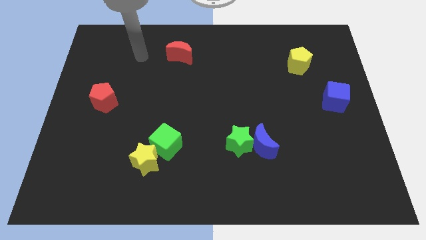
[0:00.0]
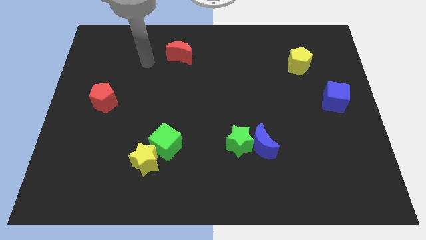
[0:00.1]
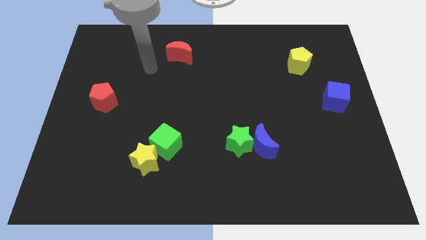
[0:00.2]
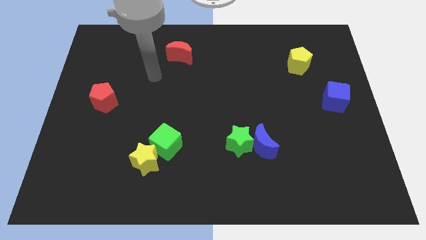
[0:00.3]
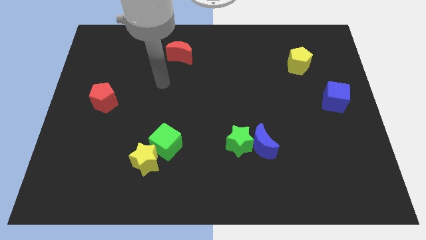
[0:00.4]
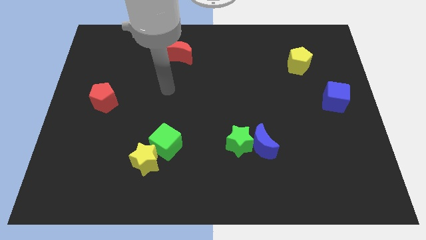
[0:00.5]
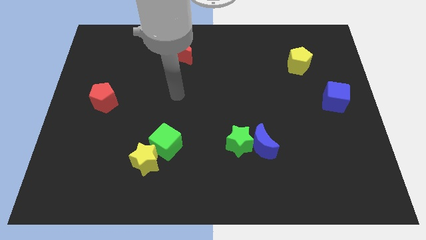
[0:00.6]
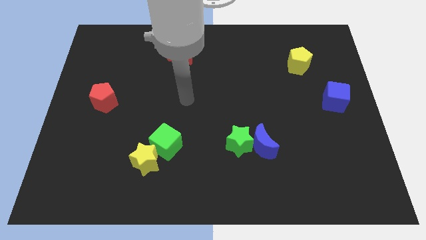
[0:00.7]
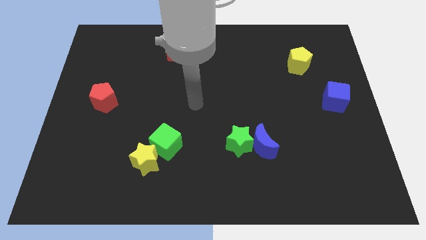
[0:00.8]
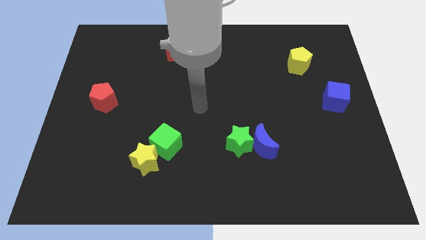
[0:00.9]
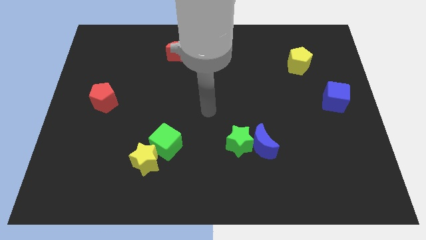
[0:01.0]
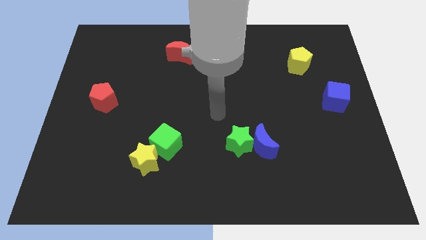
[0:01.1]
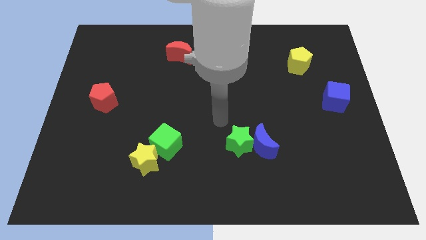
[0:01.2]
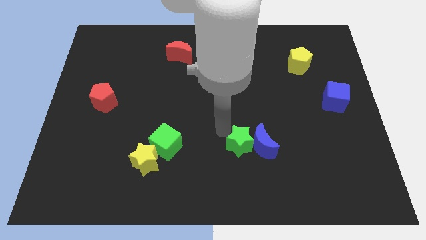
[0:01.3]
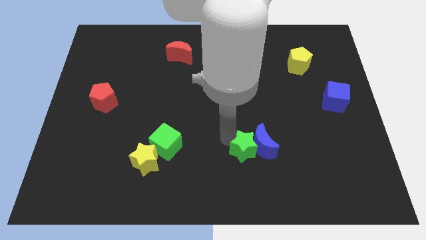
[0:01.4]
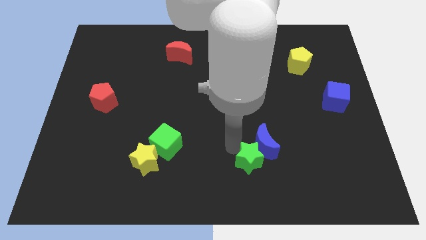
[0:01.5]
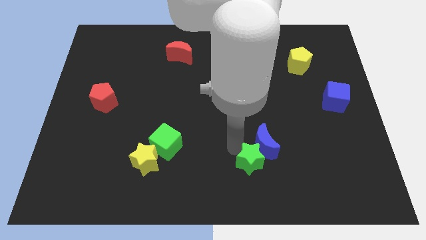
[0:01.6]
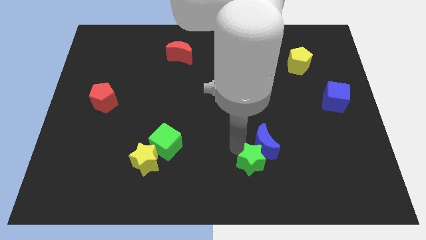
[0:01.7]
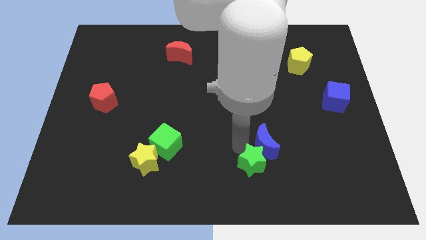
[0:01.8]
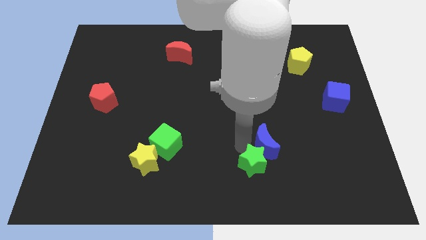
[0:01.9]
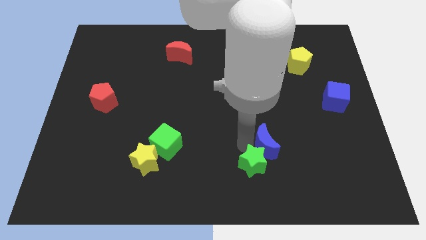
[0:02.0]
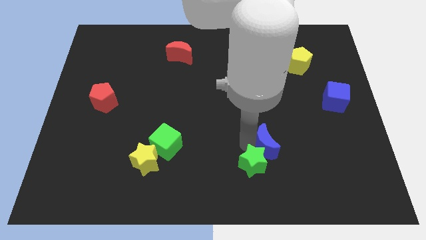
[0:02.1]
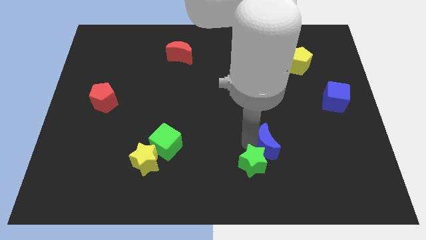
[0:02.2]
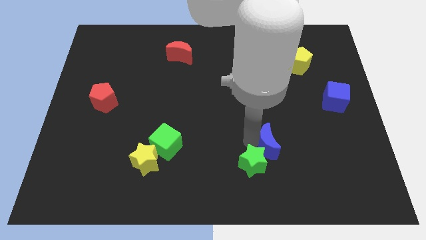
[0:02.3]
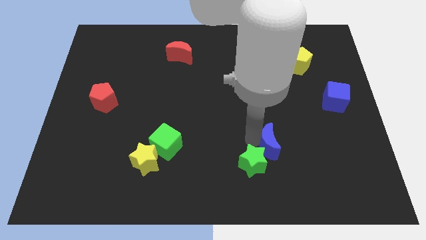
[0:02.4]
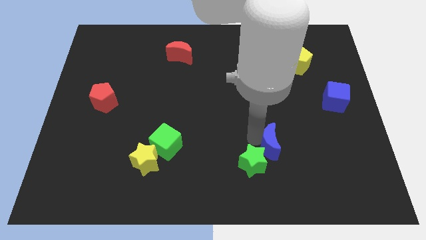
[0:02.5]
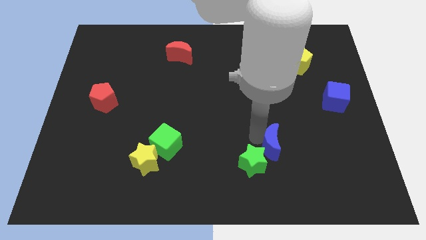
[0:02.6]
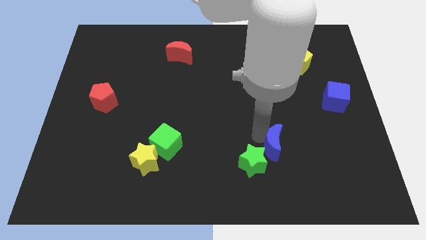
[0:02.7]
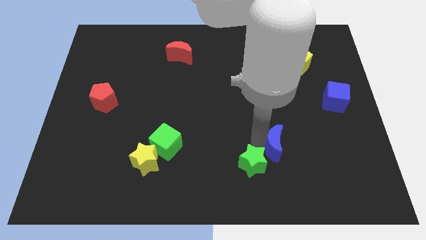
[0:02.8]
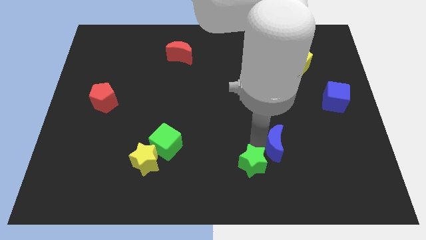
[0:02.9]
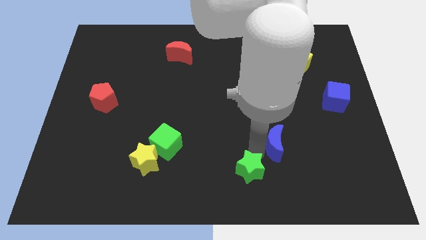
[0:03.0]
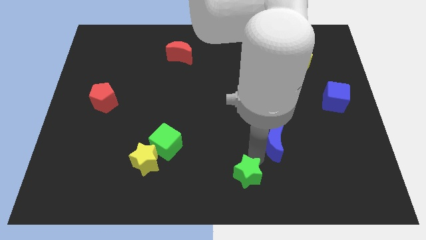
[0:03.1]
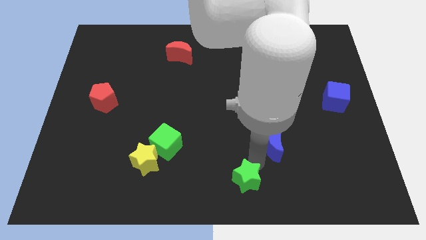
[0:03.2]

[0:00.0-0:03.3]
move the blue moon away from the green star

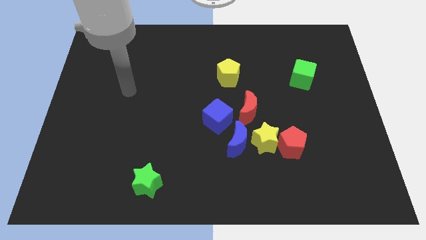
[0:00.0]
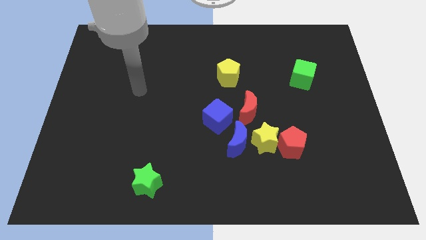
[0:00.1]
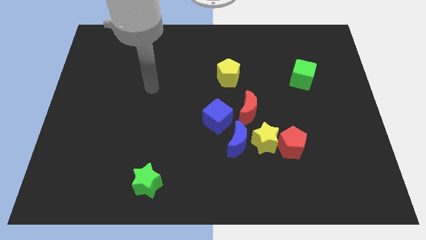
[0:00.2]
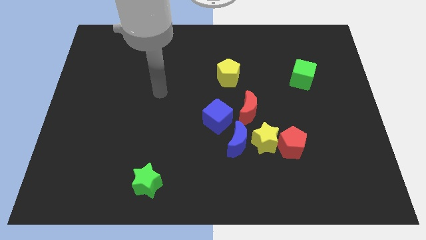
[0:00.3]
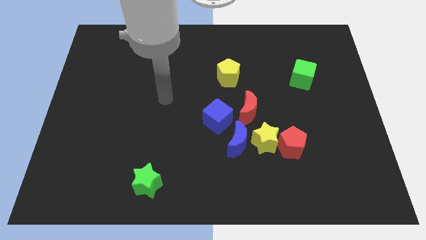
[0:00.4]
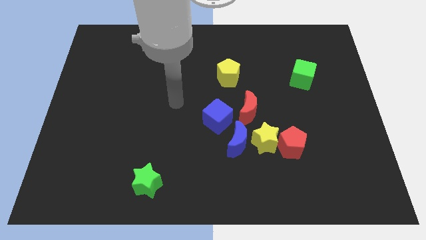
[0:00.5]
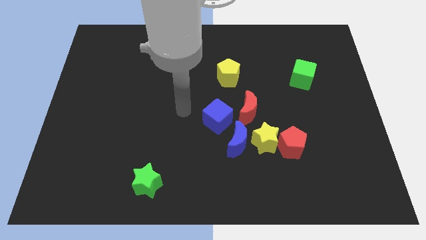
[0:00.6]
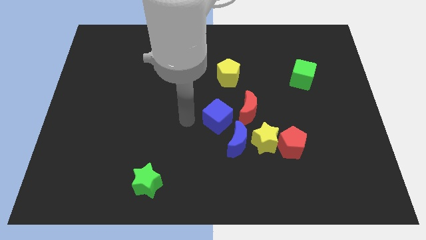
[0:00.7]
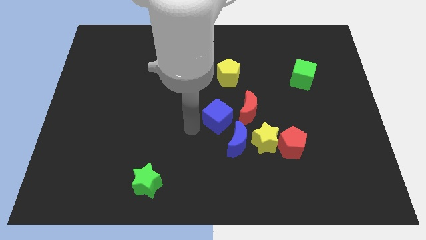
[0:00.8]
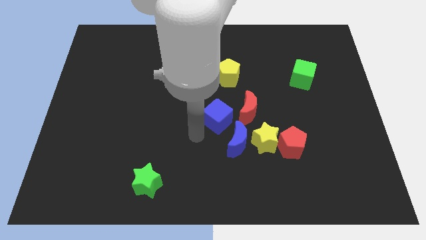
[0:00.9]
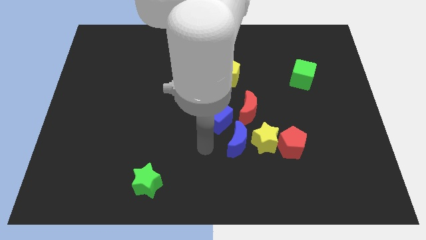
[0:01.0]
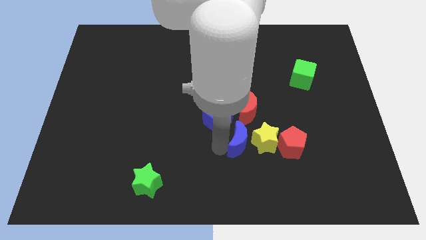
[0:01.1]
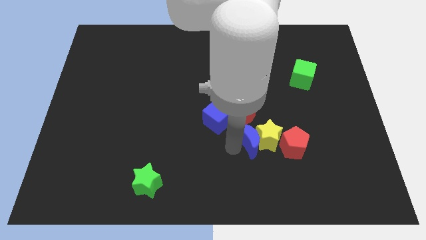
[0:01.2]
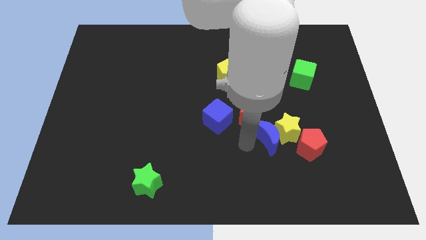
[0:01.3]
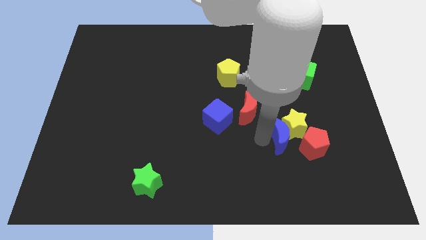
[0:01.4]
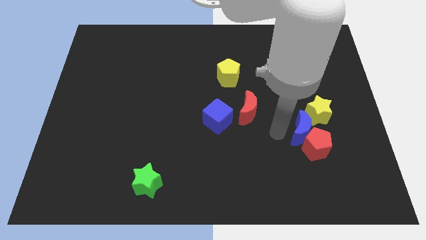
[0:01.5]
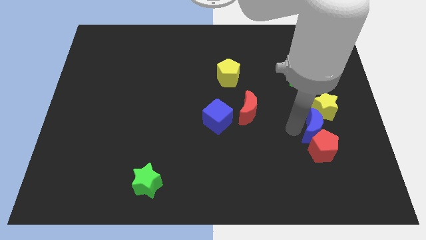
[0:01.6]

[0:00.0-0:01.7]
separate the red pentagon from the yellow star

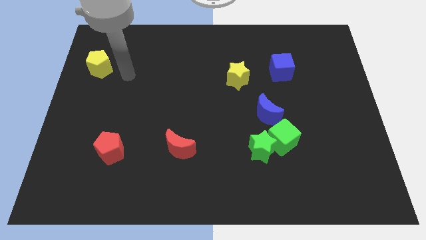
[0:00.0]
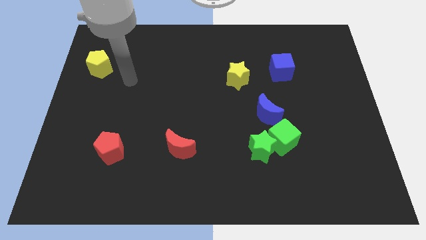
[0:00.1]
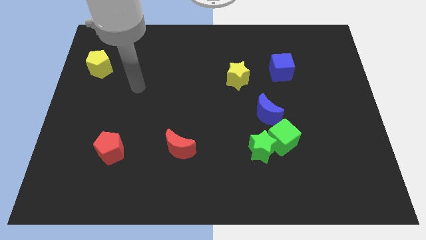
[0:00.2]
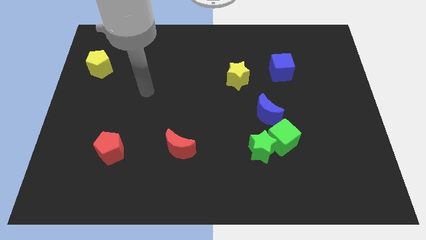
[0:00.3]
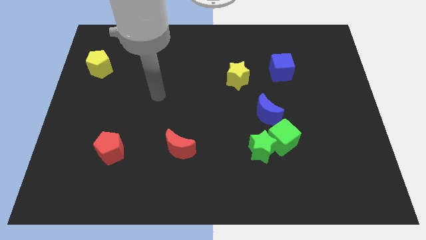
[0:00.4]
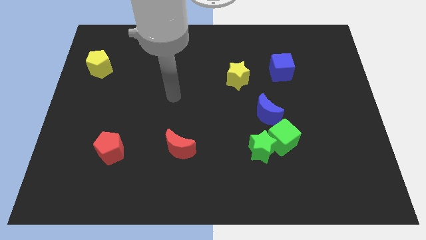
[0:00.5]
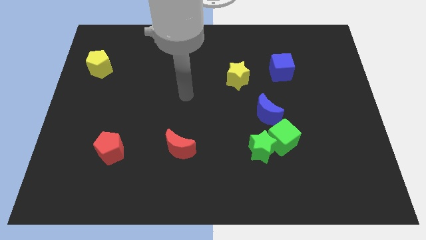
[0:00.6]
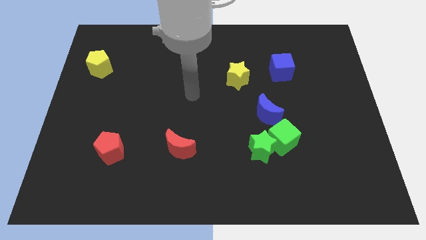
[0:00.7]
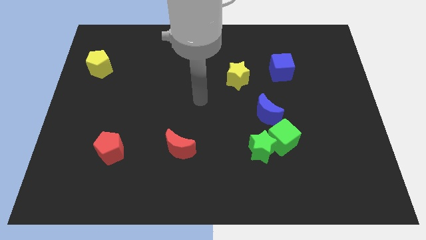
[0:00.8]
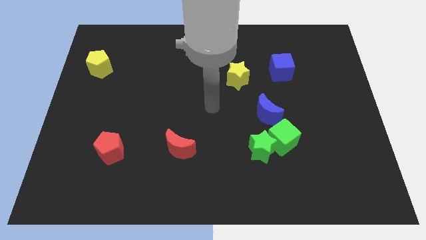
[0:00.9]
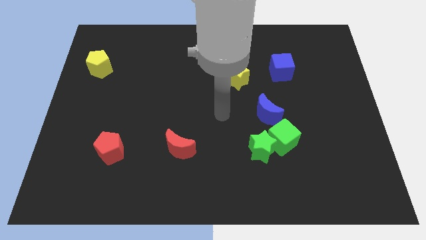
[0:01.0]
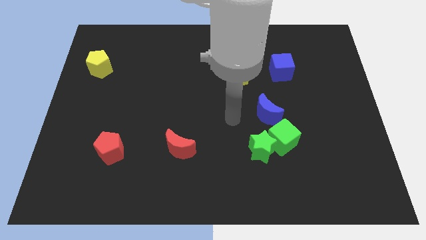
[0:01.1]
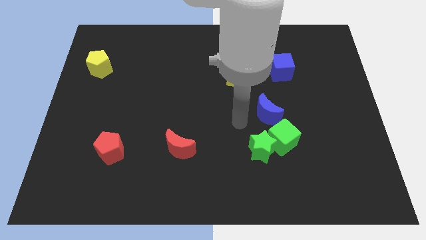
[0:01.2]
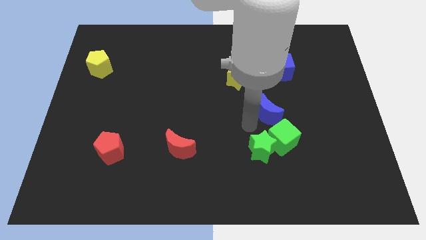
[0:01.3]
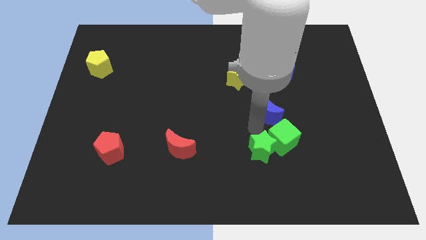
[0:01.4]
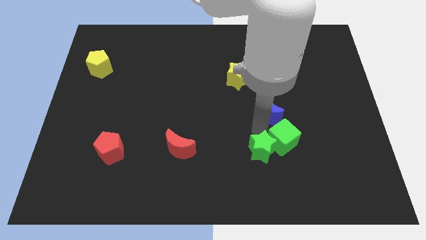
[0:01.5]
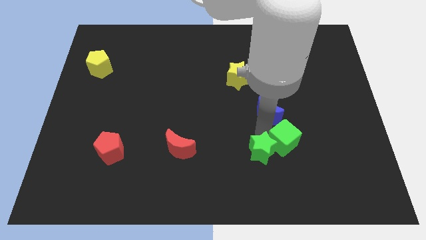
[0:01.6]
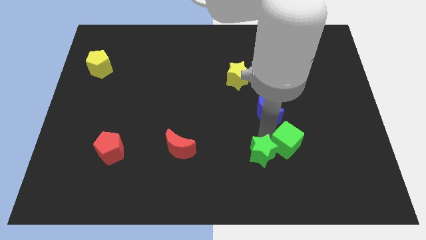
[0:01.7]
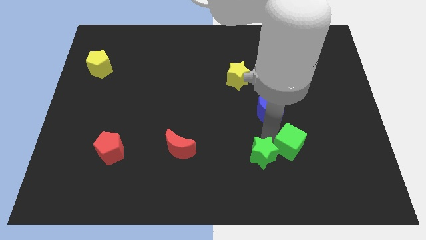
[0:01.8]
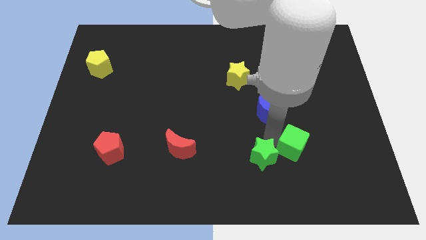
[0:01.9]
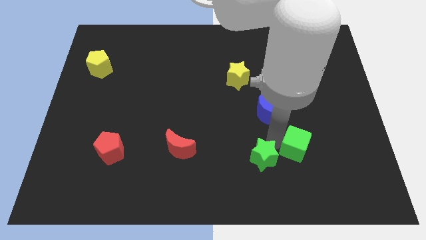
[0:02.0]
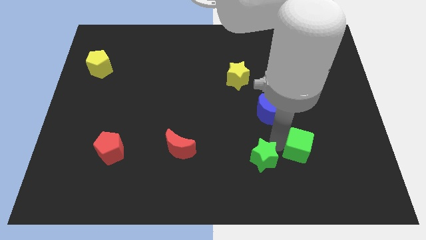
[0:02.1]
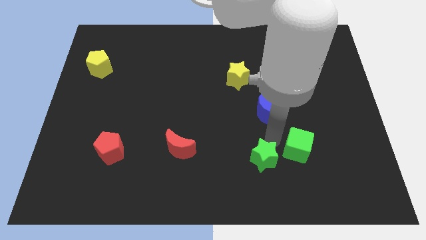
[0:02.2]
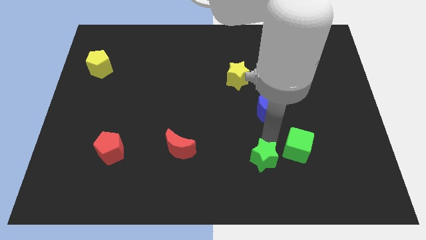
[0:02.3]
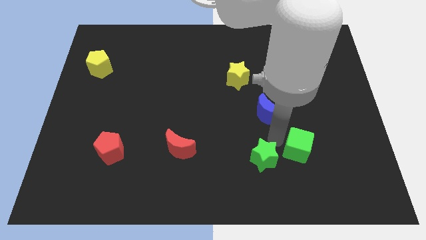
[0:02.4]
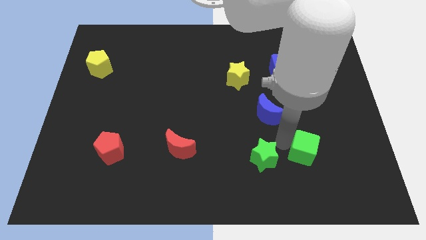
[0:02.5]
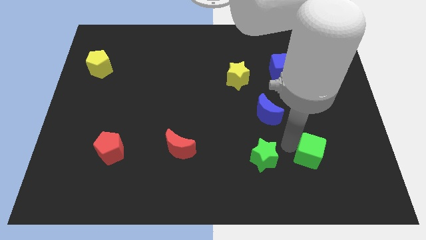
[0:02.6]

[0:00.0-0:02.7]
separate the green cube from the green star and blue moon

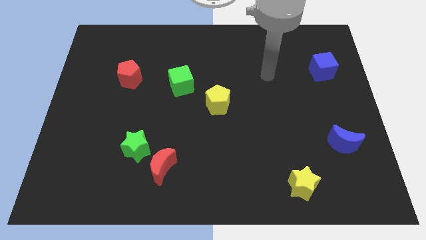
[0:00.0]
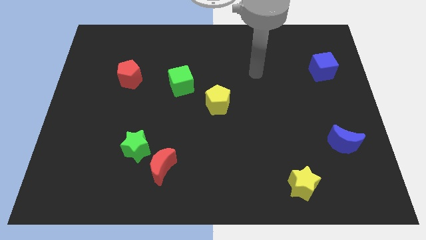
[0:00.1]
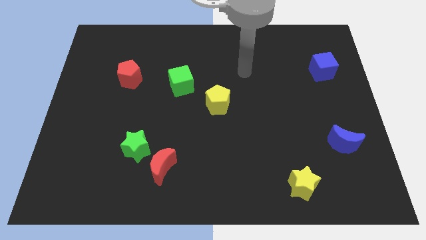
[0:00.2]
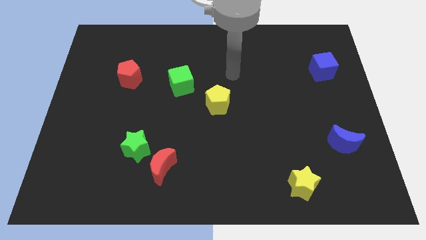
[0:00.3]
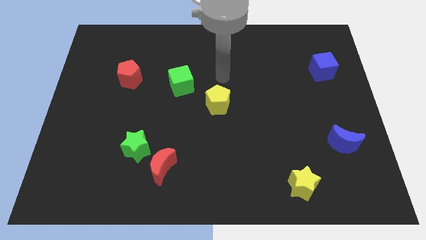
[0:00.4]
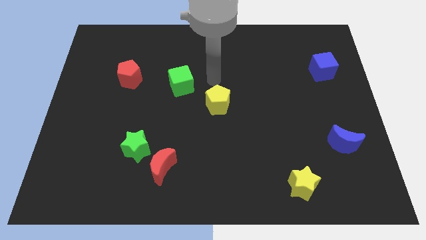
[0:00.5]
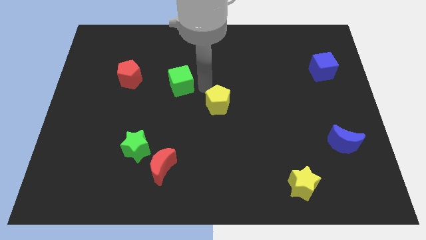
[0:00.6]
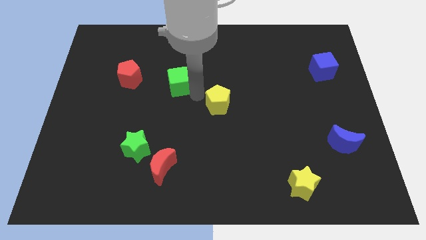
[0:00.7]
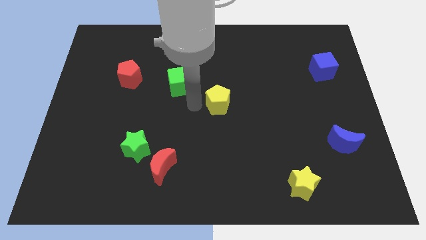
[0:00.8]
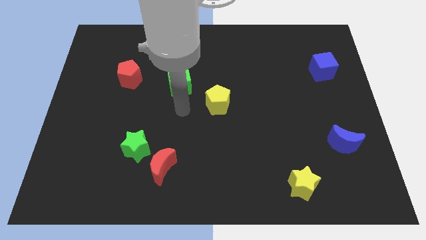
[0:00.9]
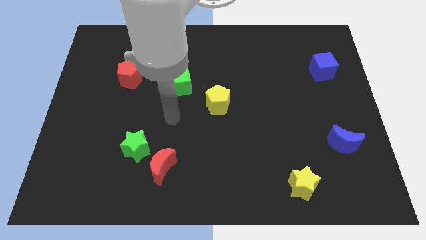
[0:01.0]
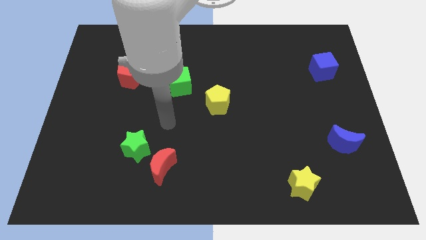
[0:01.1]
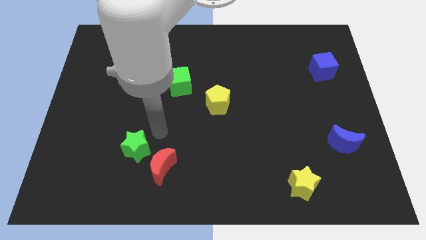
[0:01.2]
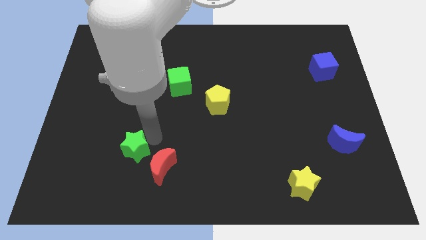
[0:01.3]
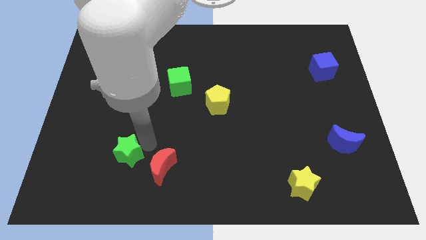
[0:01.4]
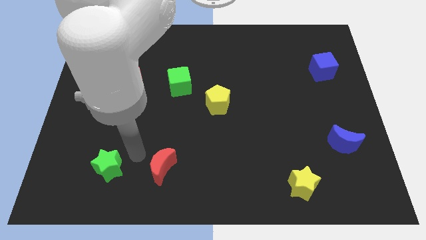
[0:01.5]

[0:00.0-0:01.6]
separate the red moon from the green star
